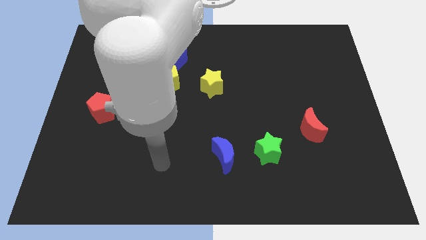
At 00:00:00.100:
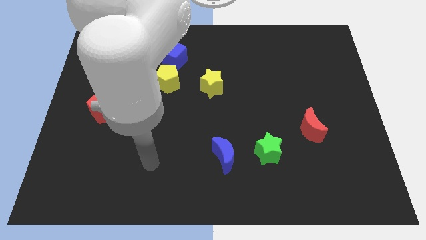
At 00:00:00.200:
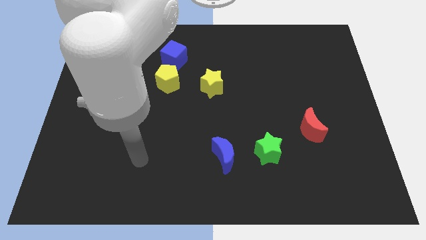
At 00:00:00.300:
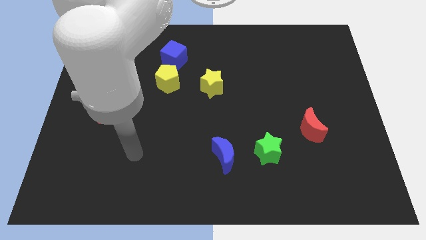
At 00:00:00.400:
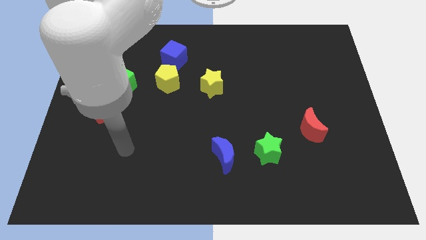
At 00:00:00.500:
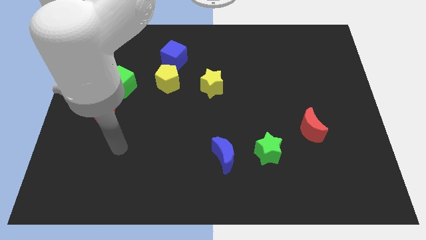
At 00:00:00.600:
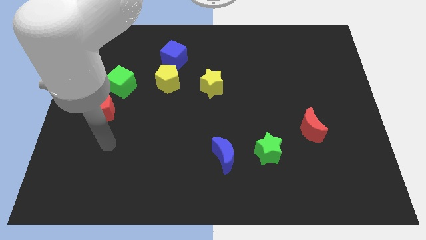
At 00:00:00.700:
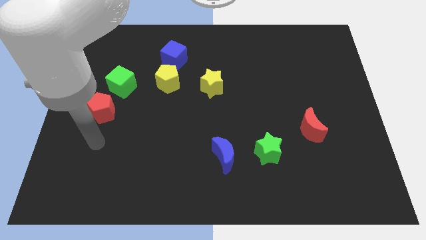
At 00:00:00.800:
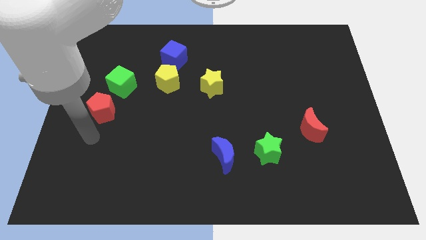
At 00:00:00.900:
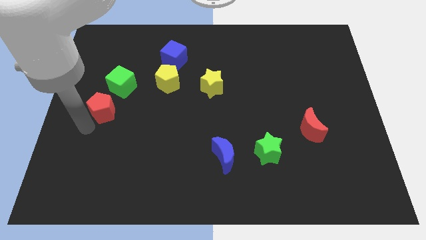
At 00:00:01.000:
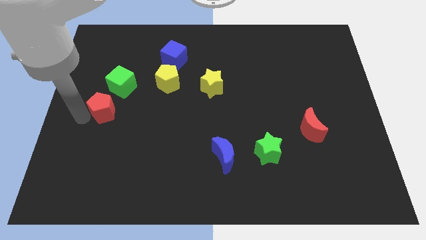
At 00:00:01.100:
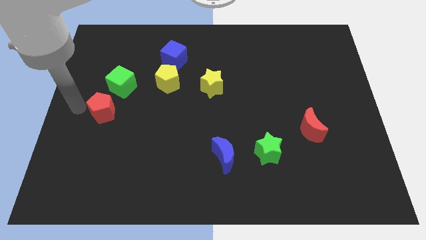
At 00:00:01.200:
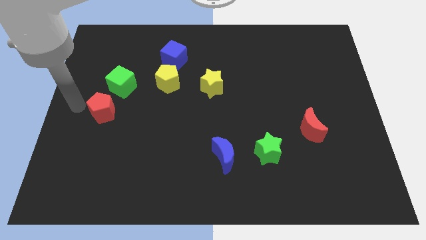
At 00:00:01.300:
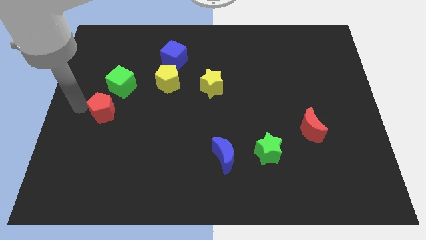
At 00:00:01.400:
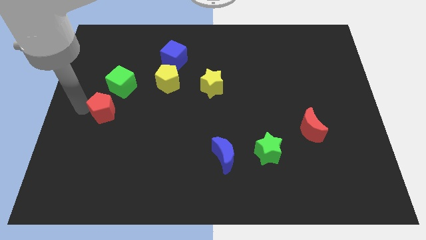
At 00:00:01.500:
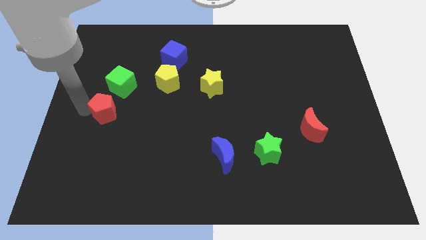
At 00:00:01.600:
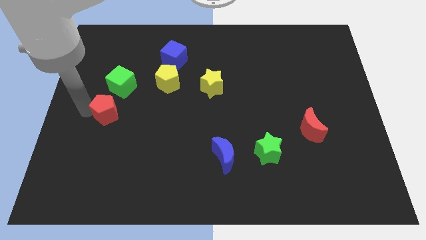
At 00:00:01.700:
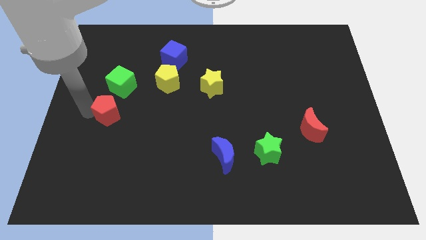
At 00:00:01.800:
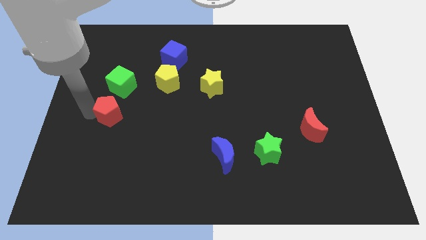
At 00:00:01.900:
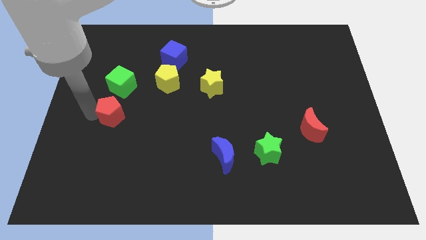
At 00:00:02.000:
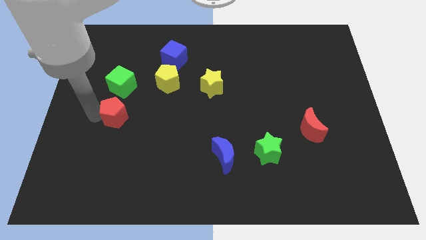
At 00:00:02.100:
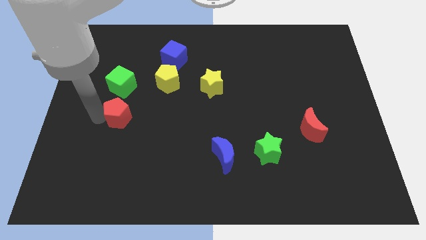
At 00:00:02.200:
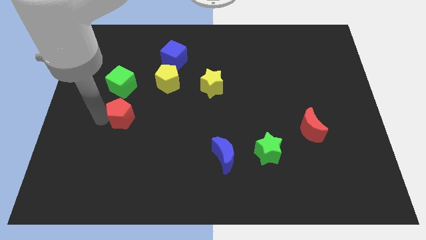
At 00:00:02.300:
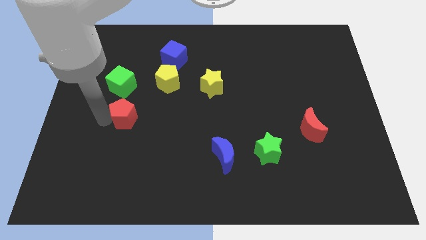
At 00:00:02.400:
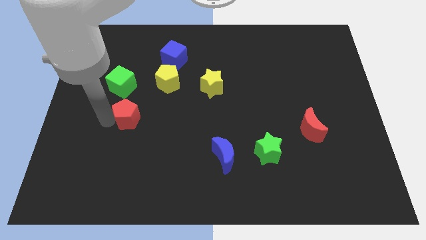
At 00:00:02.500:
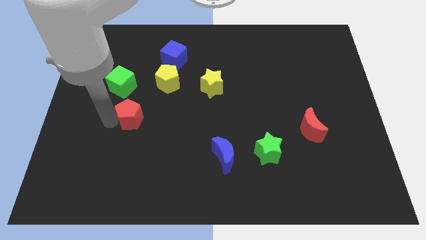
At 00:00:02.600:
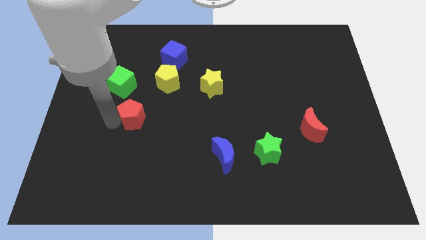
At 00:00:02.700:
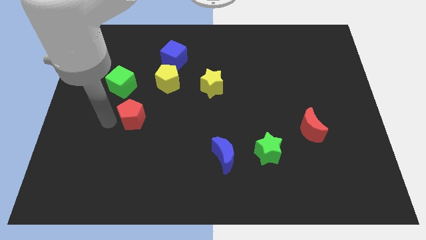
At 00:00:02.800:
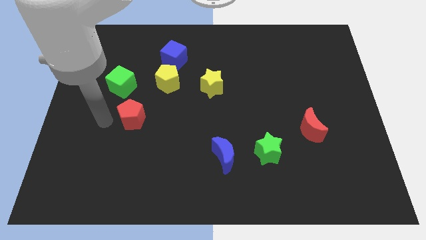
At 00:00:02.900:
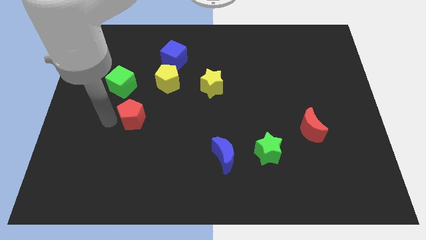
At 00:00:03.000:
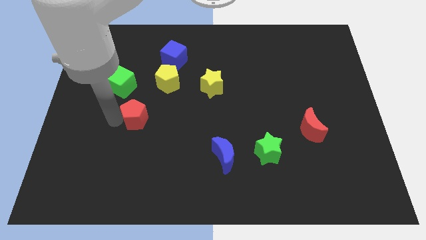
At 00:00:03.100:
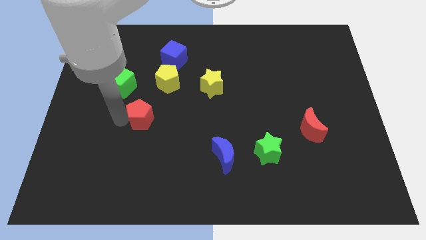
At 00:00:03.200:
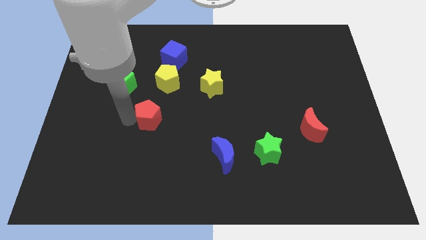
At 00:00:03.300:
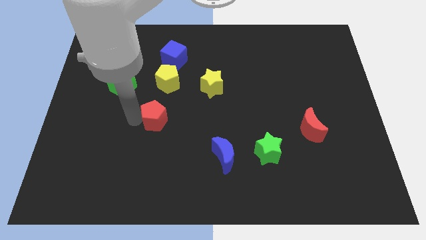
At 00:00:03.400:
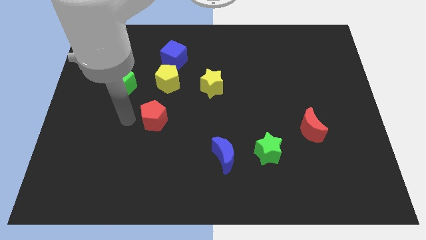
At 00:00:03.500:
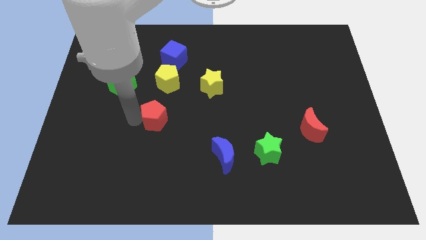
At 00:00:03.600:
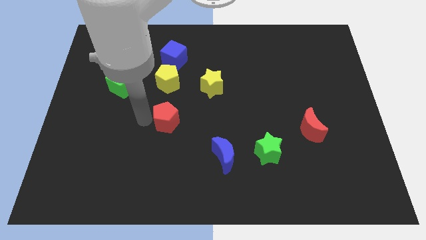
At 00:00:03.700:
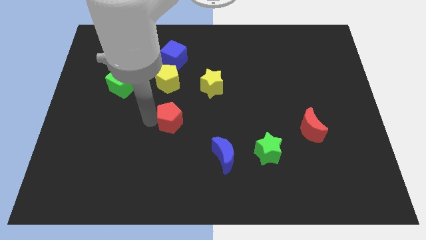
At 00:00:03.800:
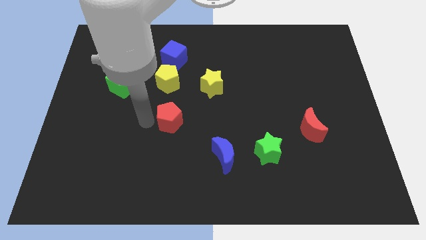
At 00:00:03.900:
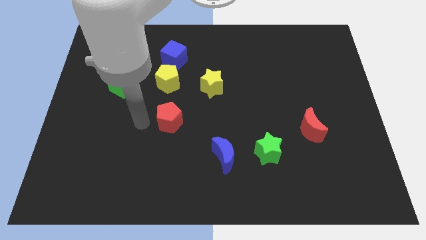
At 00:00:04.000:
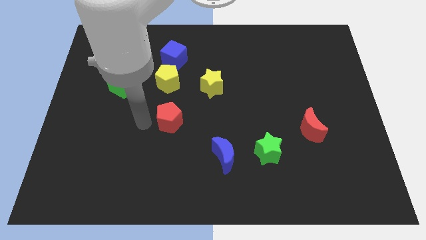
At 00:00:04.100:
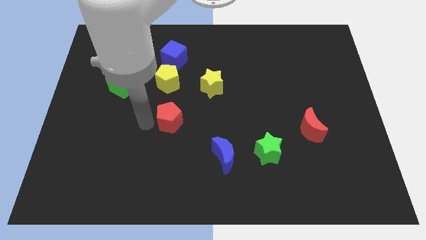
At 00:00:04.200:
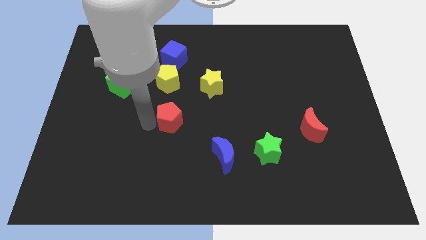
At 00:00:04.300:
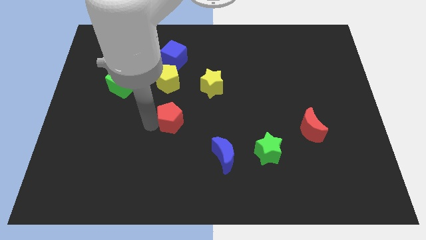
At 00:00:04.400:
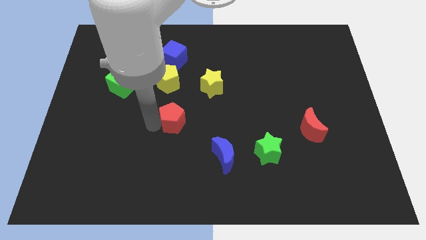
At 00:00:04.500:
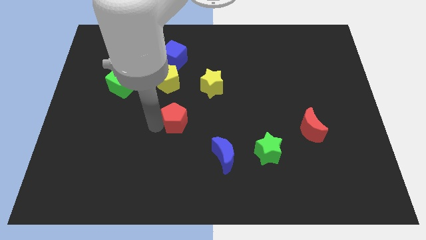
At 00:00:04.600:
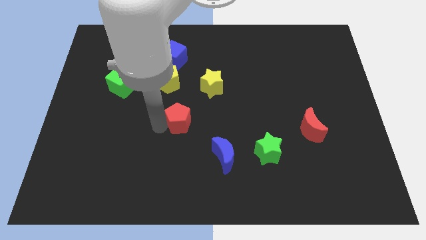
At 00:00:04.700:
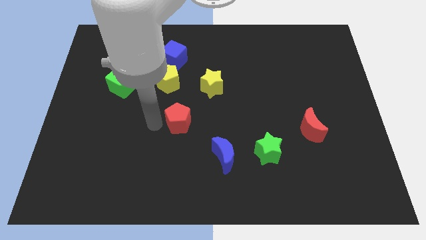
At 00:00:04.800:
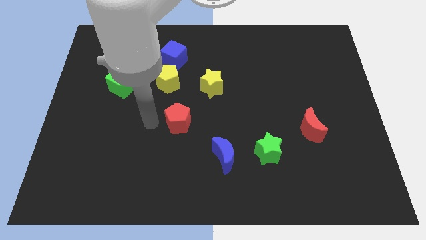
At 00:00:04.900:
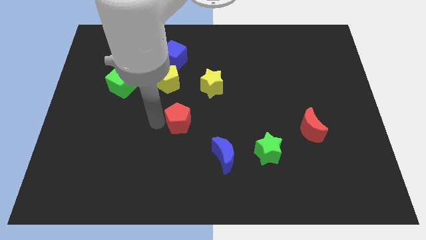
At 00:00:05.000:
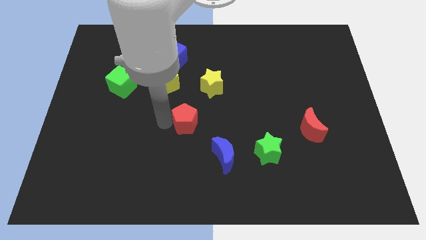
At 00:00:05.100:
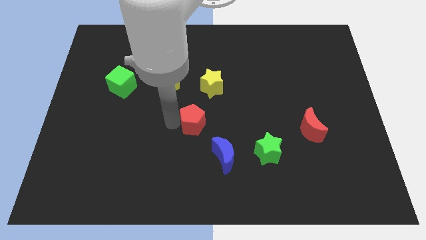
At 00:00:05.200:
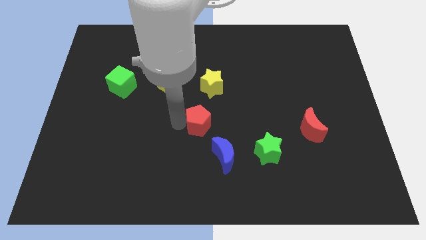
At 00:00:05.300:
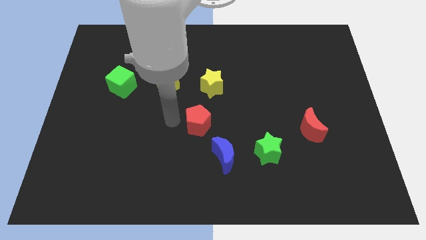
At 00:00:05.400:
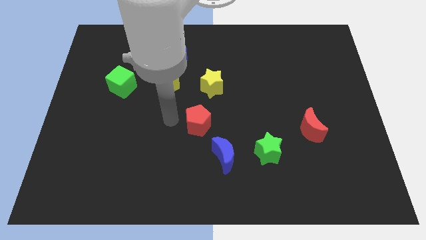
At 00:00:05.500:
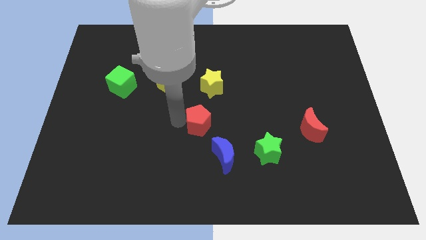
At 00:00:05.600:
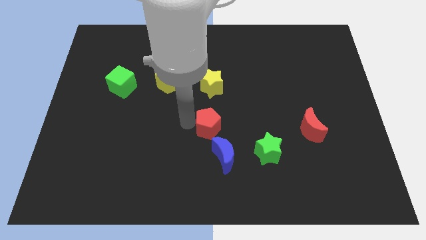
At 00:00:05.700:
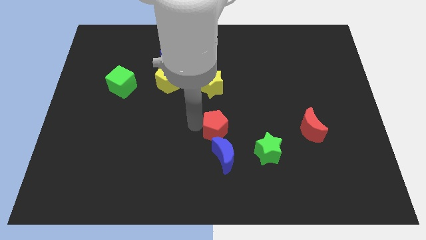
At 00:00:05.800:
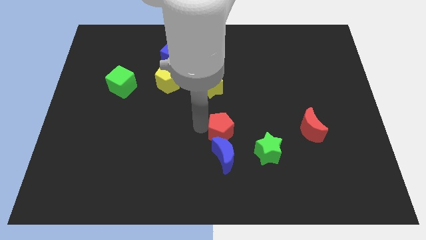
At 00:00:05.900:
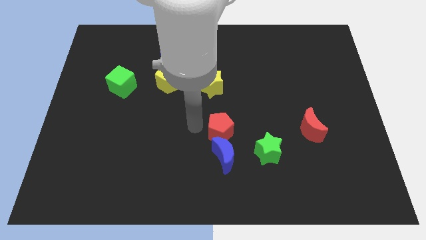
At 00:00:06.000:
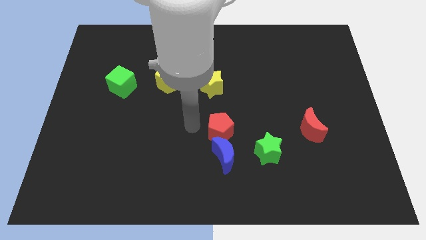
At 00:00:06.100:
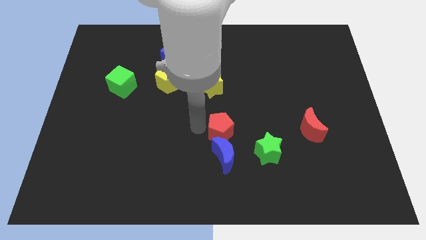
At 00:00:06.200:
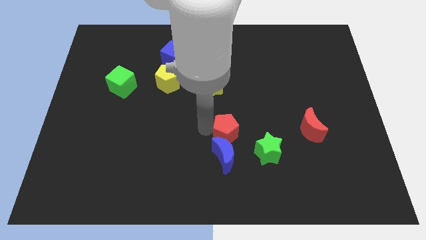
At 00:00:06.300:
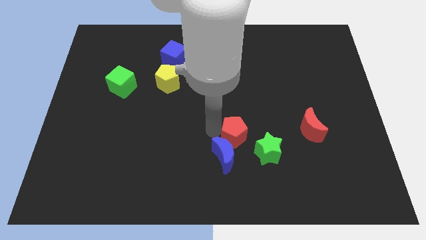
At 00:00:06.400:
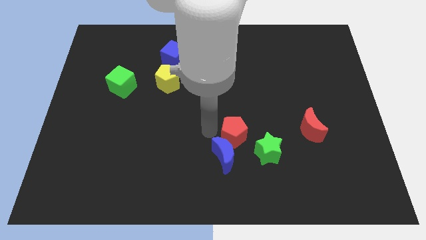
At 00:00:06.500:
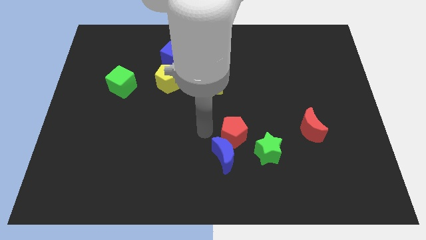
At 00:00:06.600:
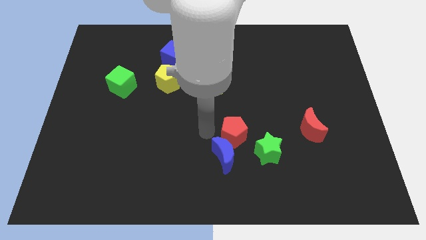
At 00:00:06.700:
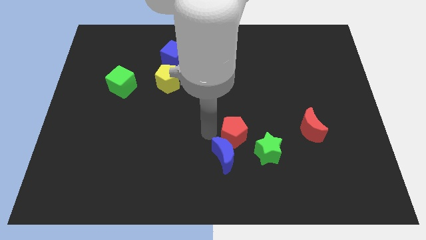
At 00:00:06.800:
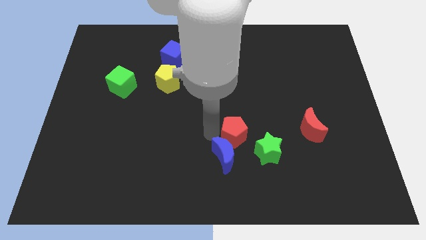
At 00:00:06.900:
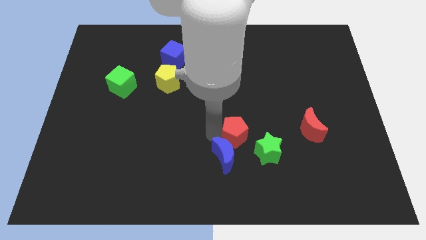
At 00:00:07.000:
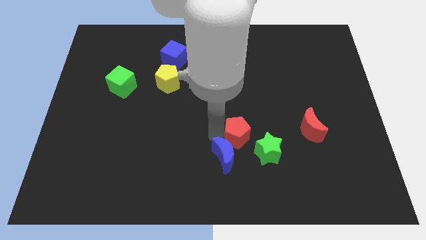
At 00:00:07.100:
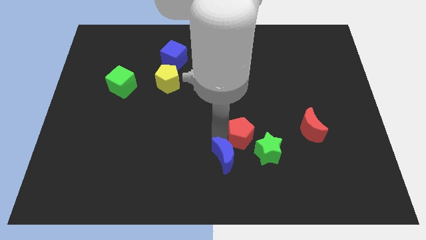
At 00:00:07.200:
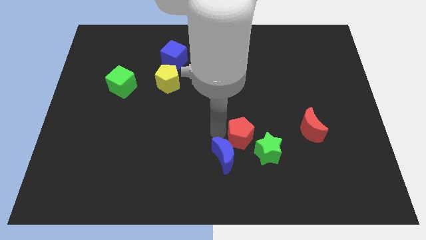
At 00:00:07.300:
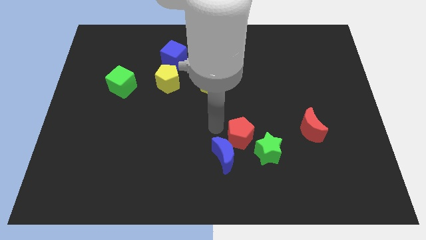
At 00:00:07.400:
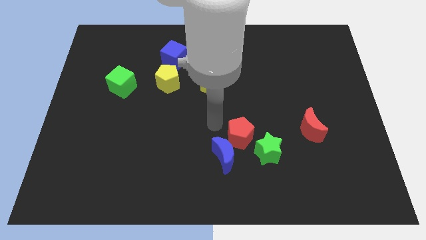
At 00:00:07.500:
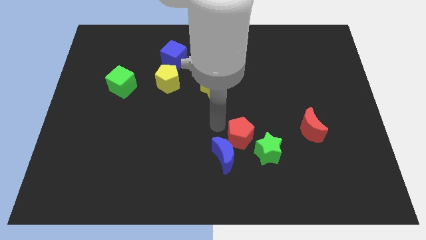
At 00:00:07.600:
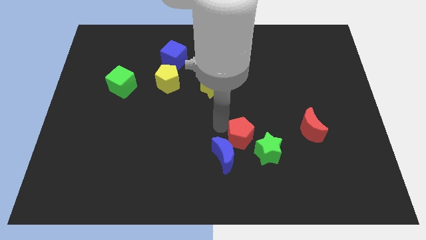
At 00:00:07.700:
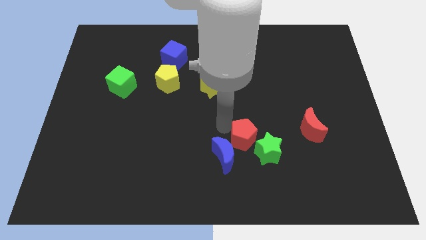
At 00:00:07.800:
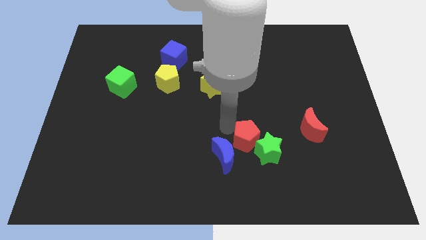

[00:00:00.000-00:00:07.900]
put the red pentagon close to the green star
